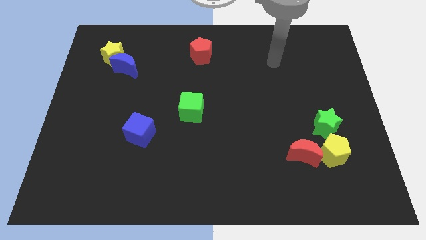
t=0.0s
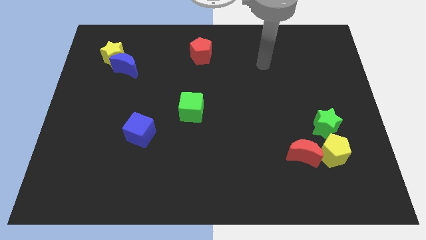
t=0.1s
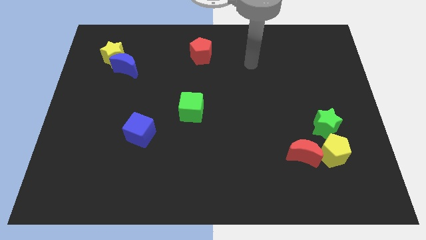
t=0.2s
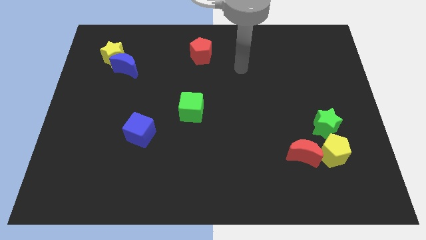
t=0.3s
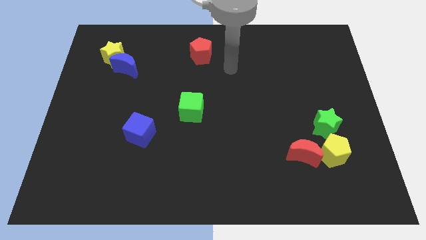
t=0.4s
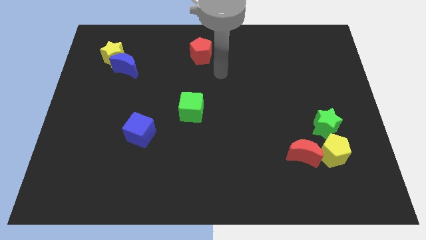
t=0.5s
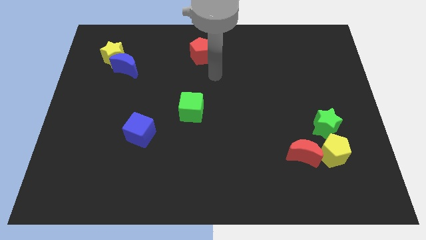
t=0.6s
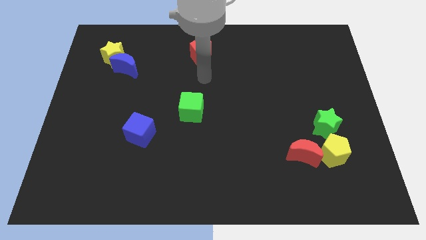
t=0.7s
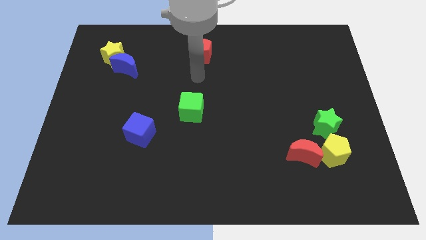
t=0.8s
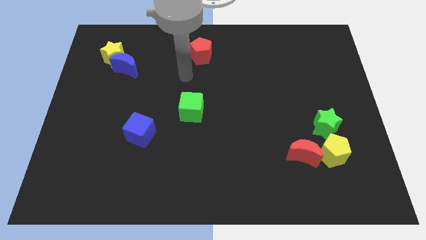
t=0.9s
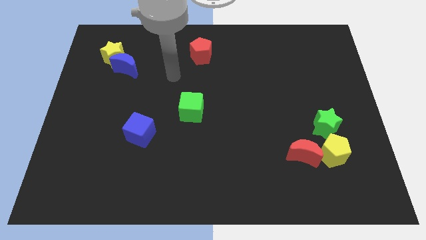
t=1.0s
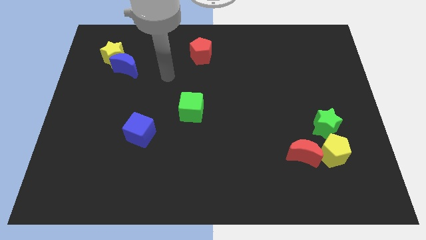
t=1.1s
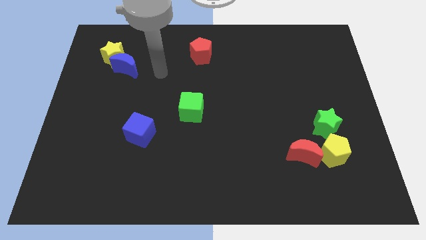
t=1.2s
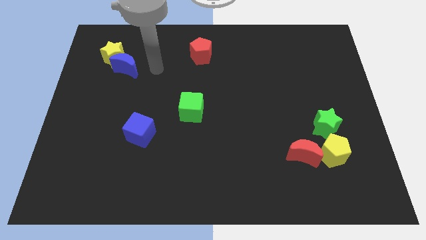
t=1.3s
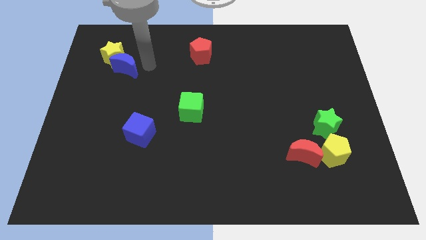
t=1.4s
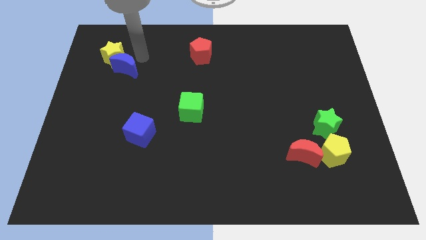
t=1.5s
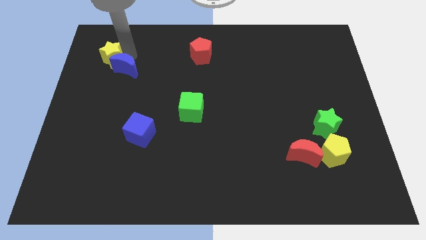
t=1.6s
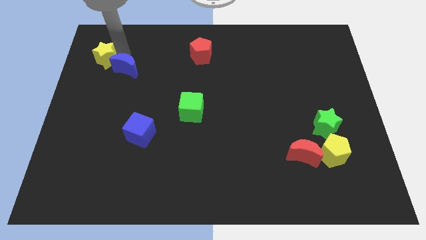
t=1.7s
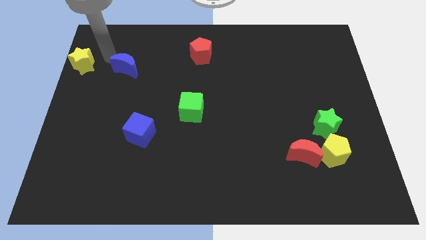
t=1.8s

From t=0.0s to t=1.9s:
separate the blue moon from the yellow star

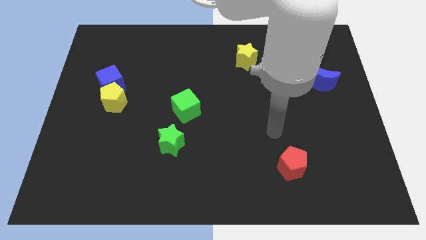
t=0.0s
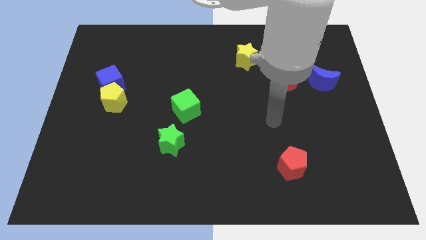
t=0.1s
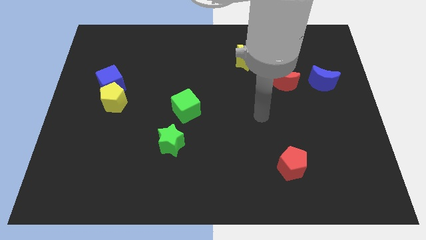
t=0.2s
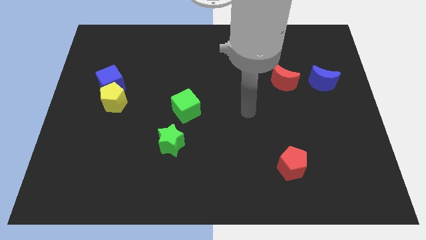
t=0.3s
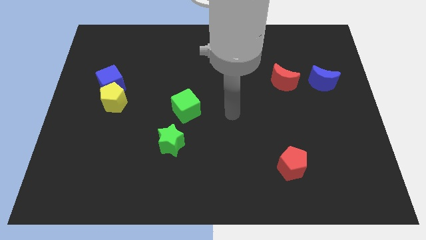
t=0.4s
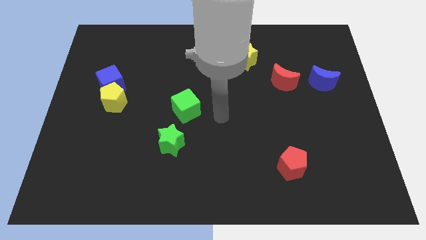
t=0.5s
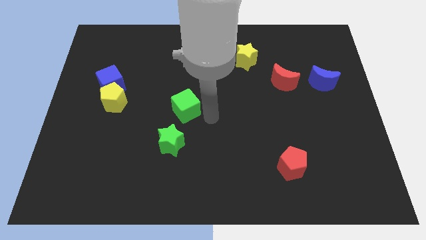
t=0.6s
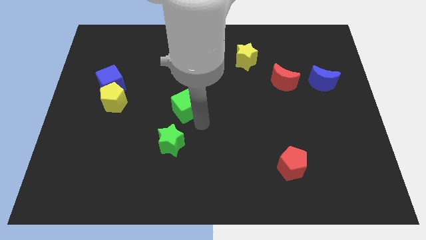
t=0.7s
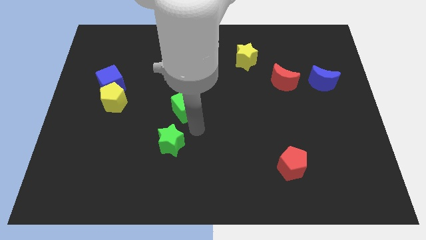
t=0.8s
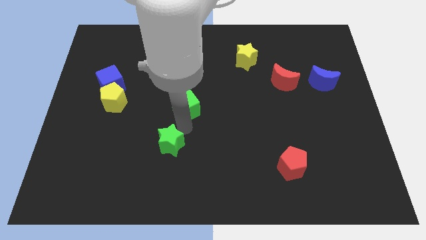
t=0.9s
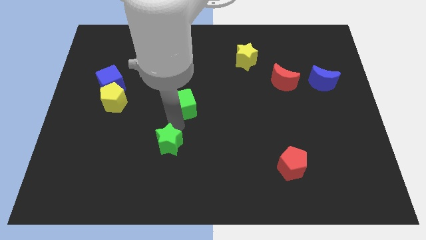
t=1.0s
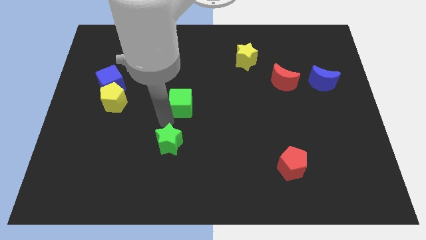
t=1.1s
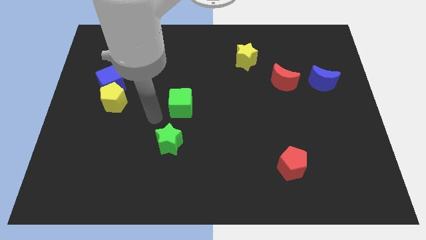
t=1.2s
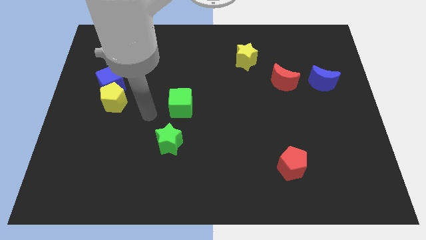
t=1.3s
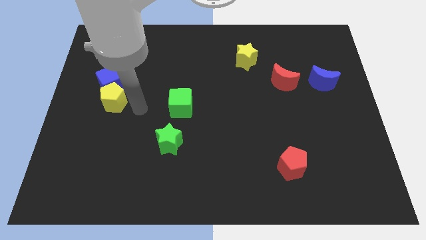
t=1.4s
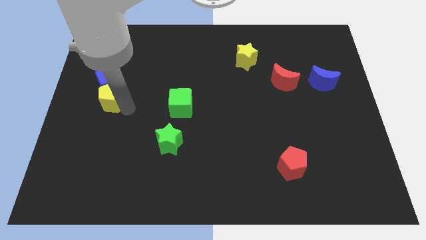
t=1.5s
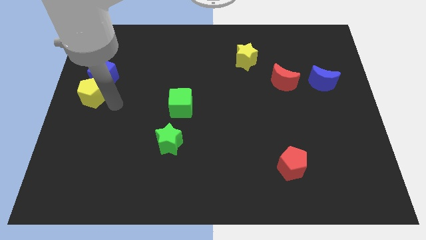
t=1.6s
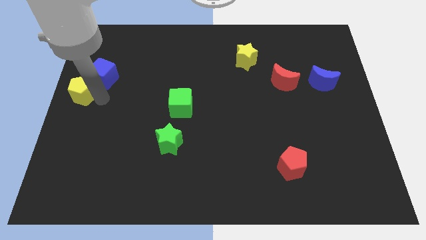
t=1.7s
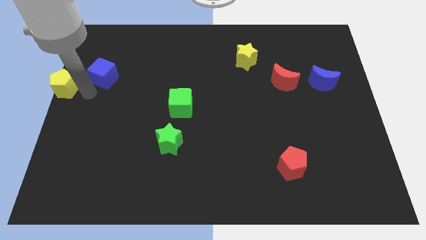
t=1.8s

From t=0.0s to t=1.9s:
pull the blue cube apart from the yellow pentagon

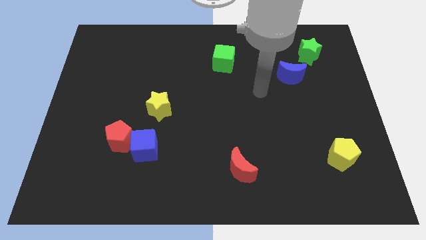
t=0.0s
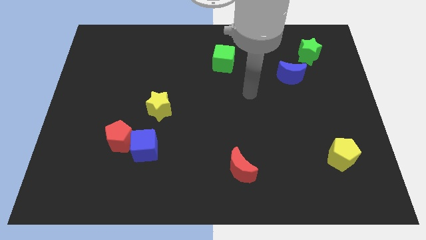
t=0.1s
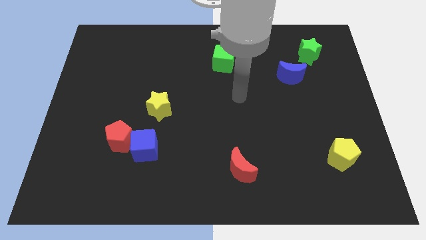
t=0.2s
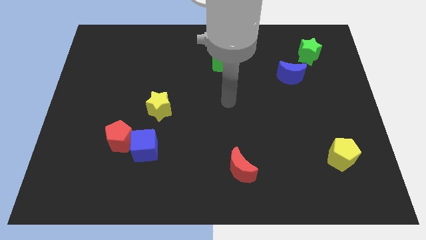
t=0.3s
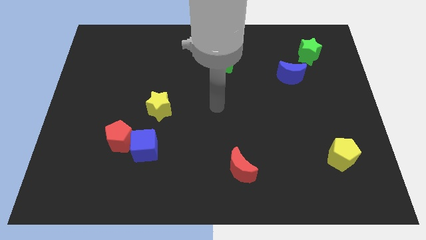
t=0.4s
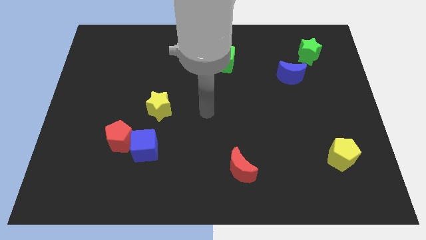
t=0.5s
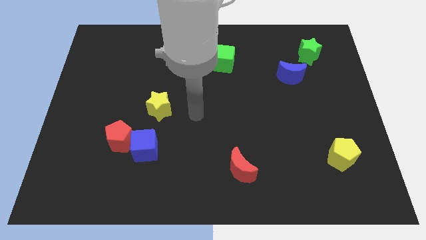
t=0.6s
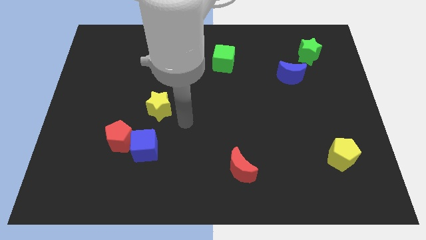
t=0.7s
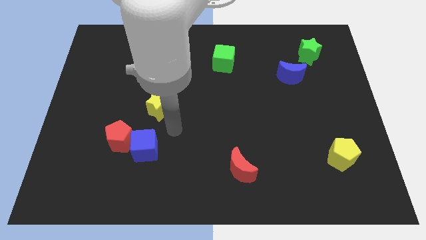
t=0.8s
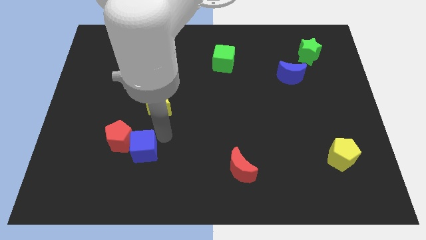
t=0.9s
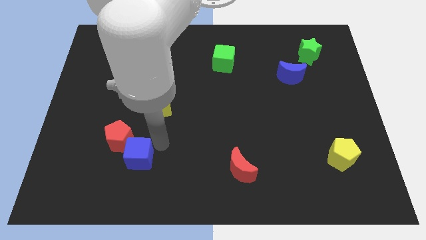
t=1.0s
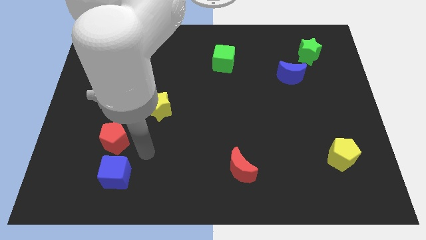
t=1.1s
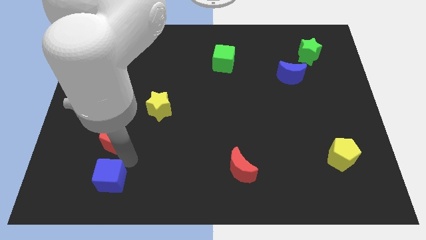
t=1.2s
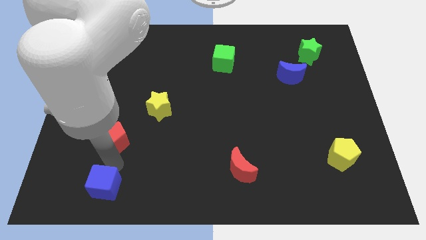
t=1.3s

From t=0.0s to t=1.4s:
move the red pentagon away from the blue cube

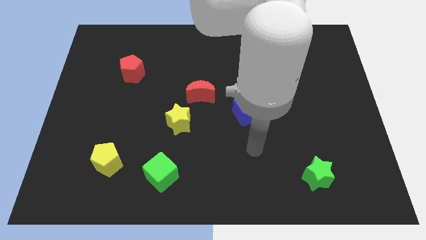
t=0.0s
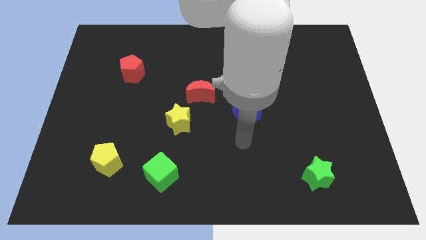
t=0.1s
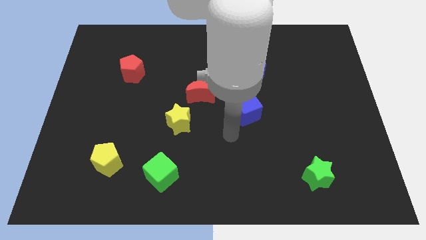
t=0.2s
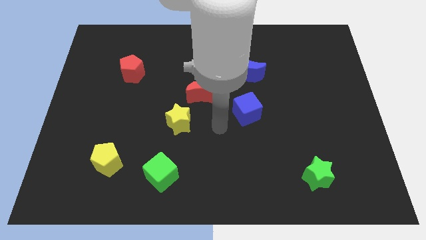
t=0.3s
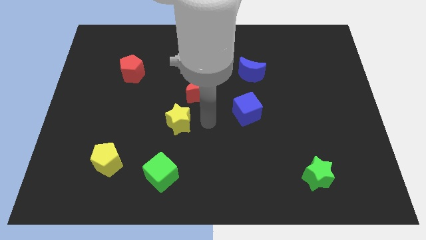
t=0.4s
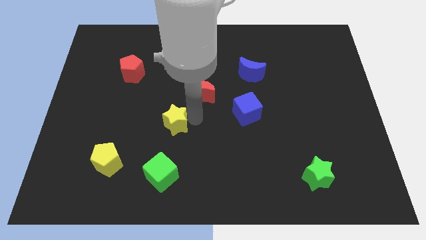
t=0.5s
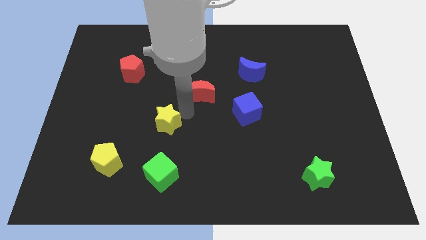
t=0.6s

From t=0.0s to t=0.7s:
pull the red moon apart from the yellow star

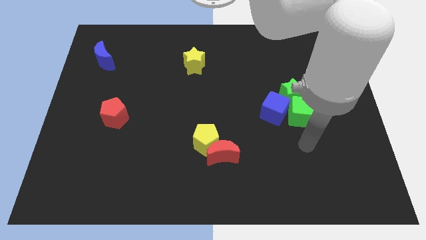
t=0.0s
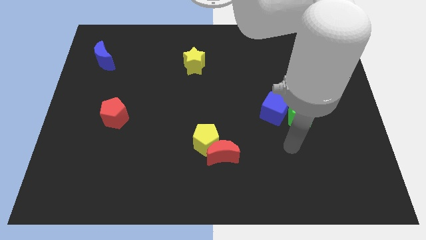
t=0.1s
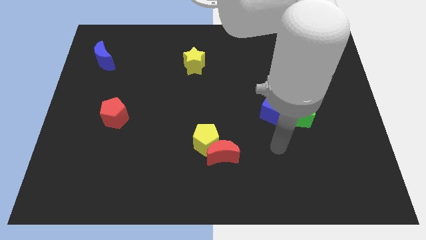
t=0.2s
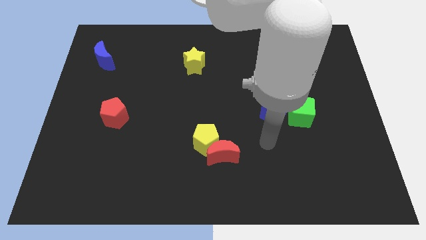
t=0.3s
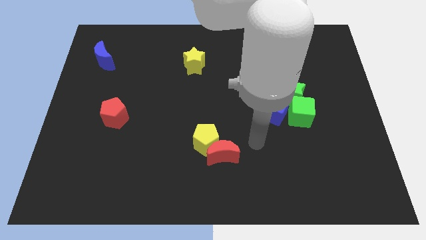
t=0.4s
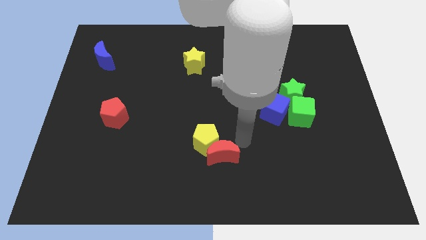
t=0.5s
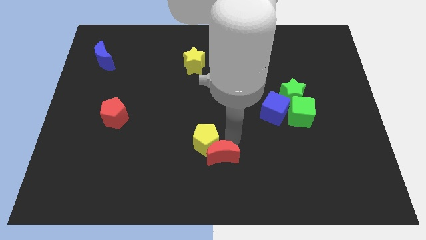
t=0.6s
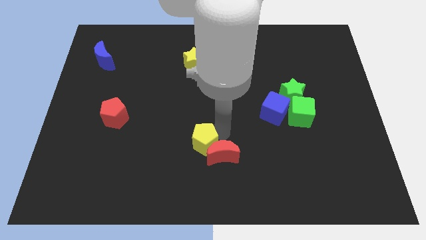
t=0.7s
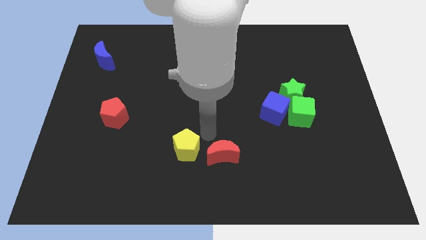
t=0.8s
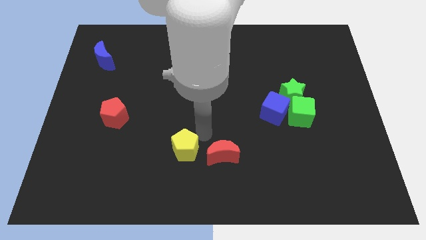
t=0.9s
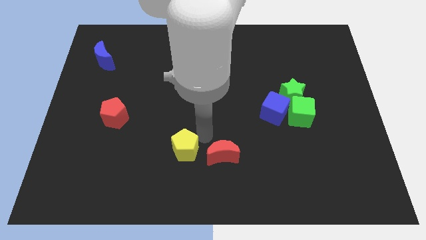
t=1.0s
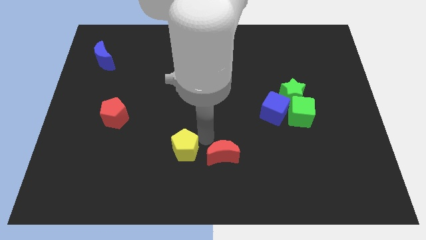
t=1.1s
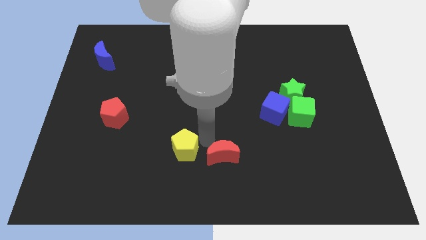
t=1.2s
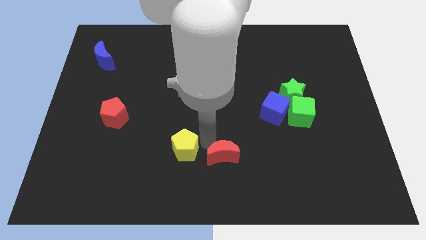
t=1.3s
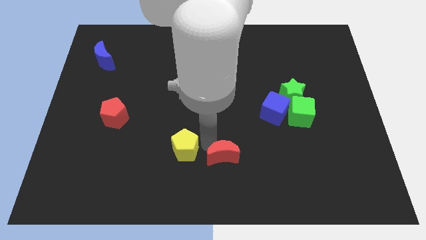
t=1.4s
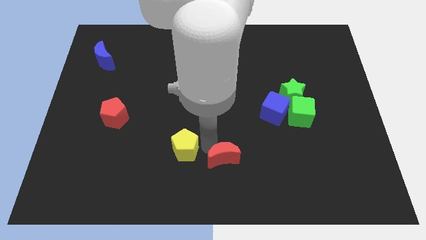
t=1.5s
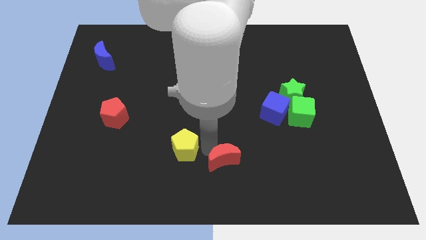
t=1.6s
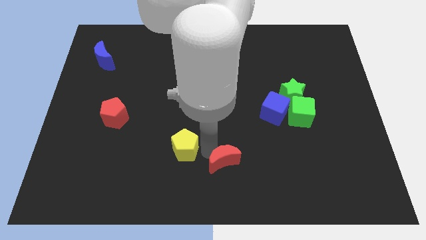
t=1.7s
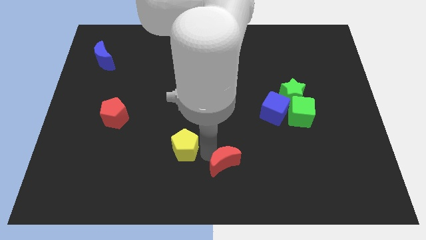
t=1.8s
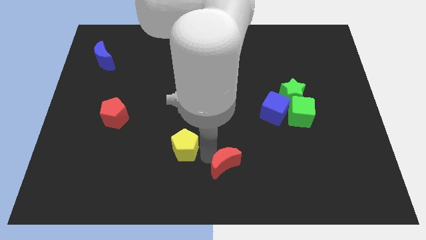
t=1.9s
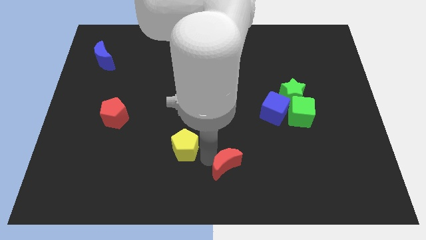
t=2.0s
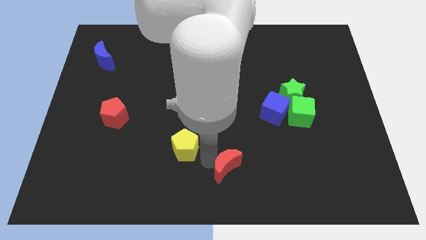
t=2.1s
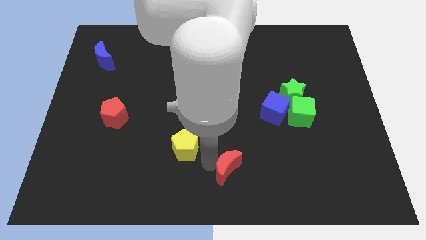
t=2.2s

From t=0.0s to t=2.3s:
pull the red moon apart from the yellow pentagon

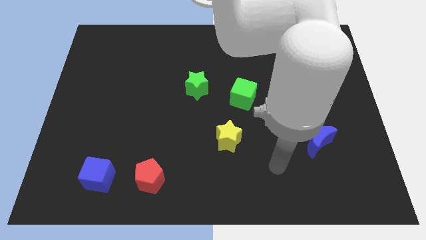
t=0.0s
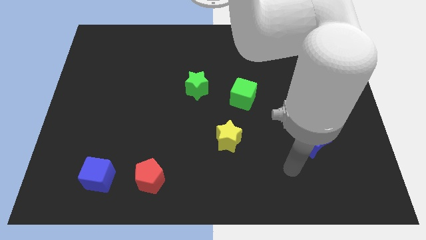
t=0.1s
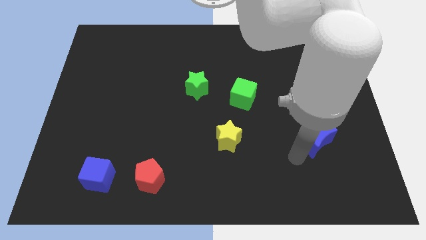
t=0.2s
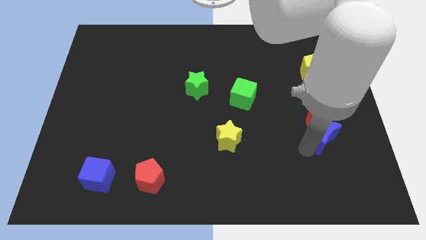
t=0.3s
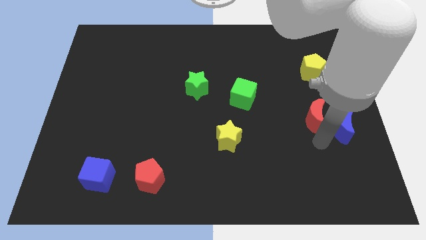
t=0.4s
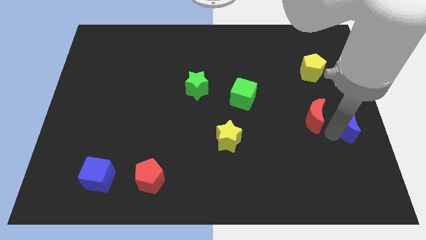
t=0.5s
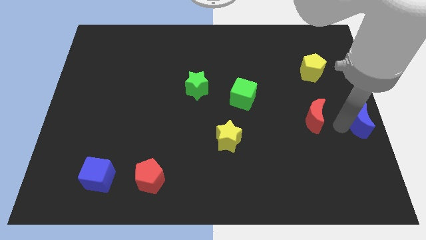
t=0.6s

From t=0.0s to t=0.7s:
pull the red moon apart from the blue moon

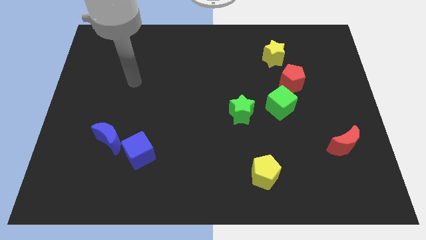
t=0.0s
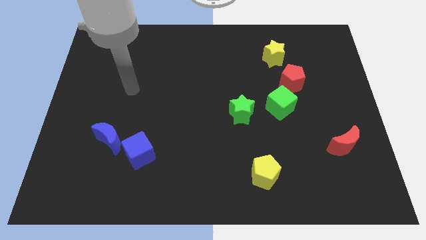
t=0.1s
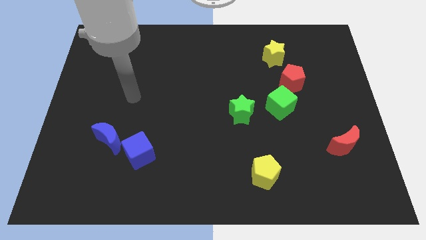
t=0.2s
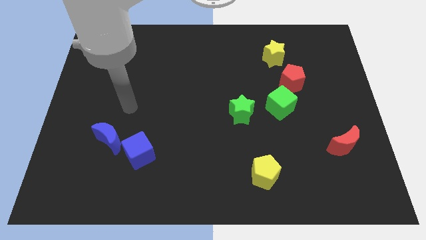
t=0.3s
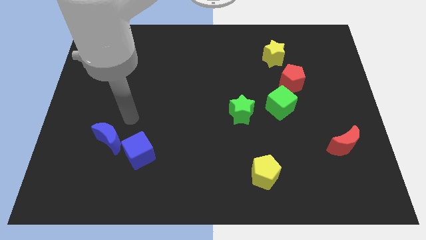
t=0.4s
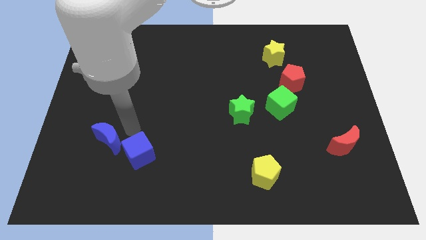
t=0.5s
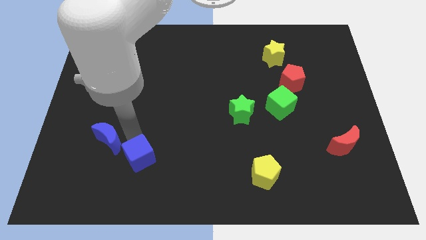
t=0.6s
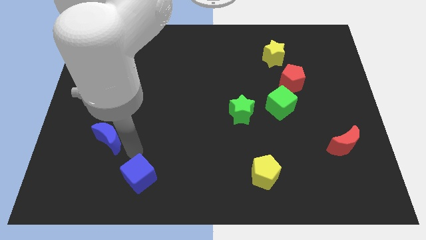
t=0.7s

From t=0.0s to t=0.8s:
separate the blue moon from the blue cube
